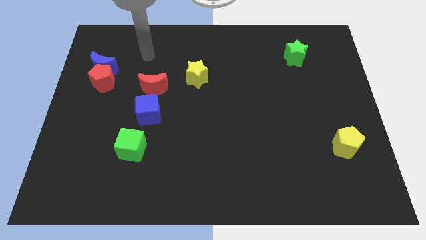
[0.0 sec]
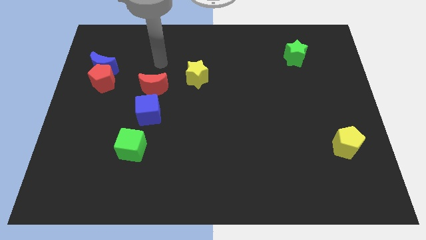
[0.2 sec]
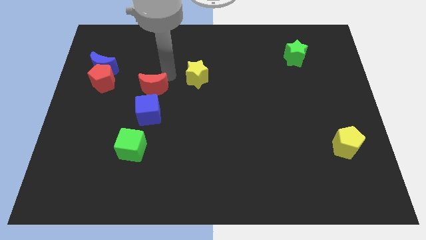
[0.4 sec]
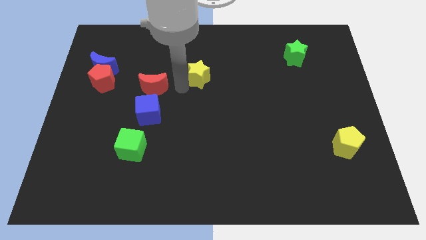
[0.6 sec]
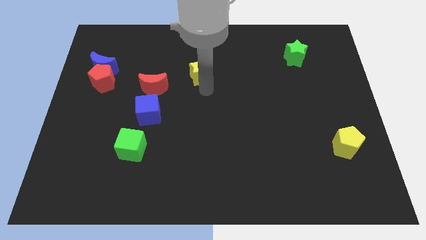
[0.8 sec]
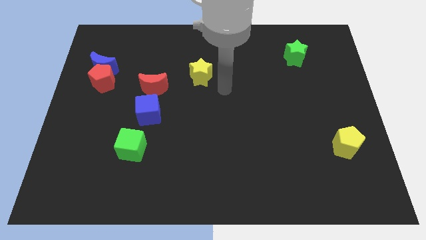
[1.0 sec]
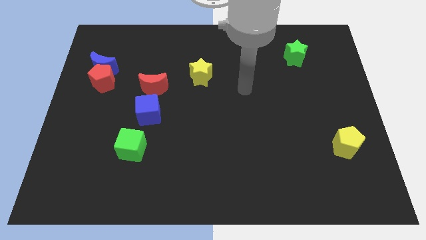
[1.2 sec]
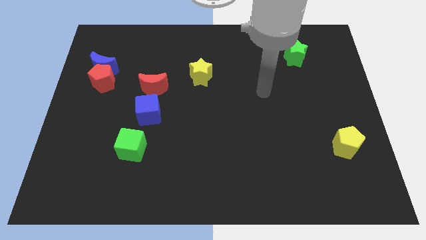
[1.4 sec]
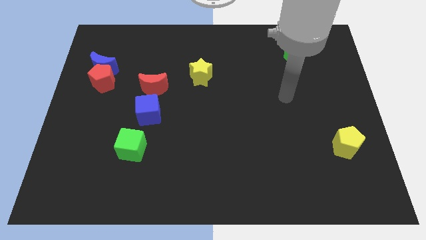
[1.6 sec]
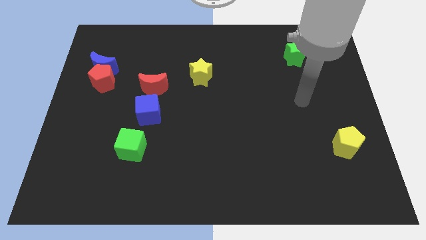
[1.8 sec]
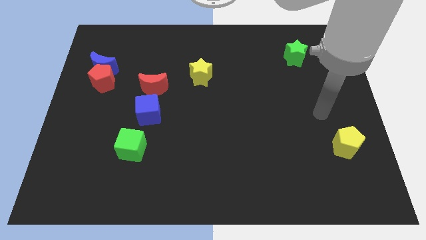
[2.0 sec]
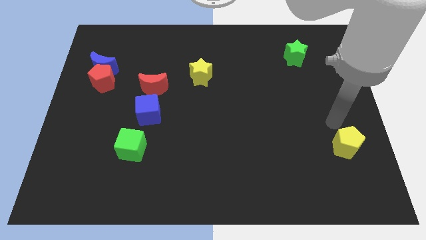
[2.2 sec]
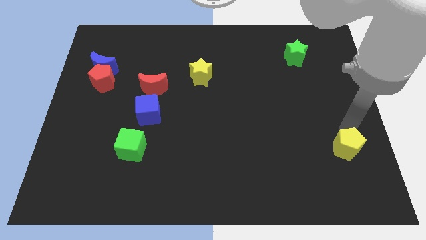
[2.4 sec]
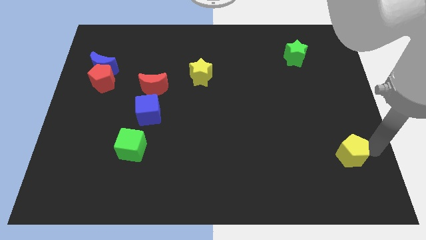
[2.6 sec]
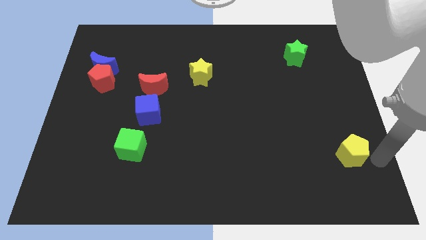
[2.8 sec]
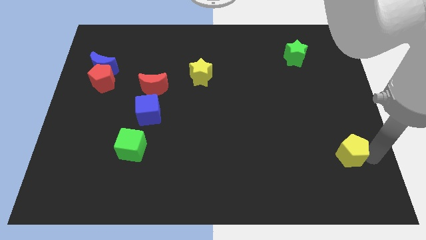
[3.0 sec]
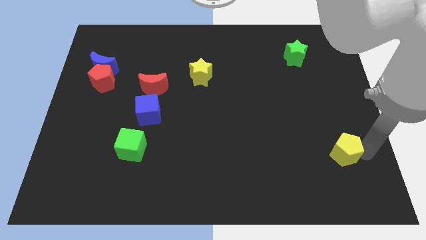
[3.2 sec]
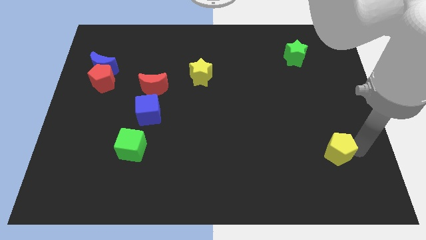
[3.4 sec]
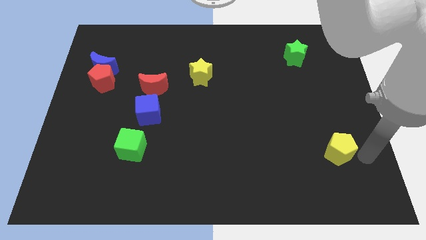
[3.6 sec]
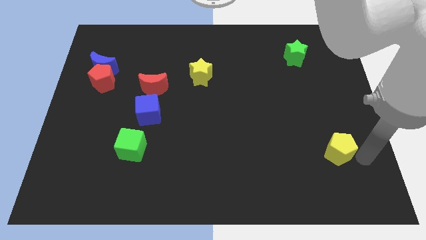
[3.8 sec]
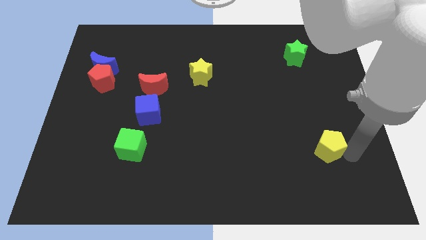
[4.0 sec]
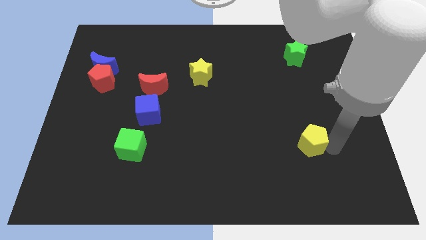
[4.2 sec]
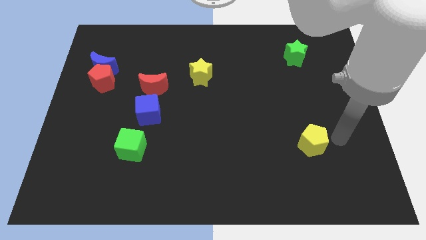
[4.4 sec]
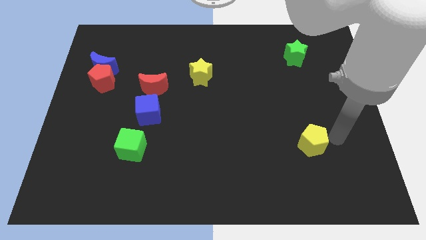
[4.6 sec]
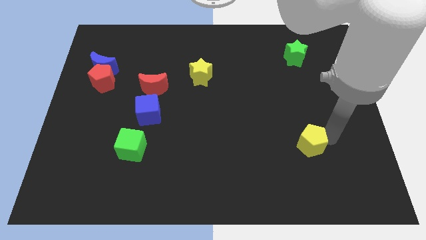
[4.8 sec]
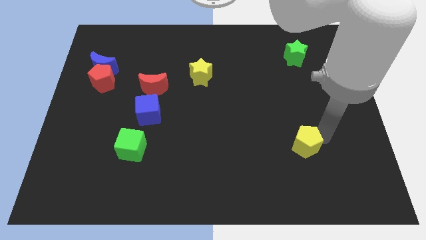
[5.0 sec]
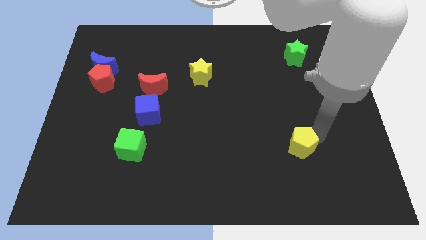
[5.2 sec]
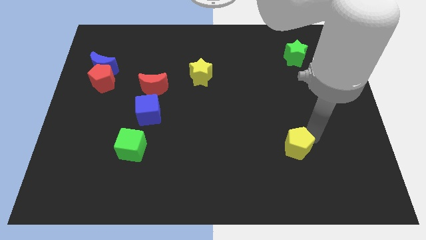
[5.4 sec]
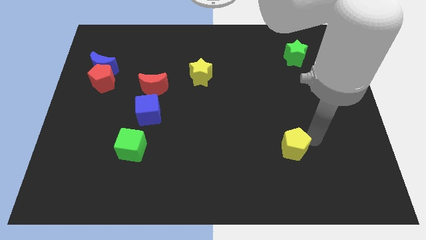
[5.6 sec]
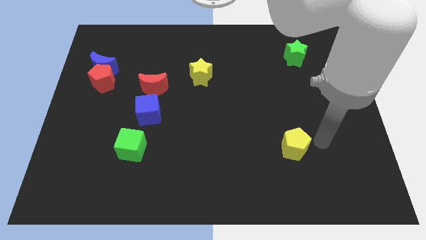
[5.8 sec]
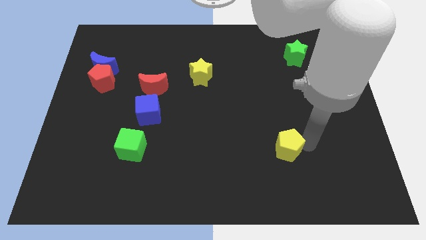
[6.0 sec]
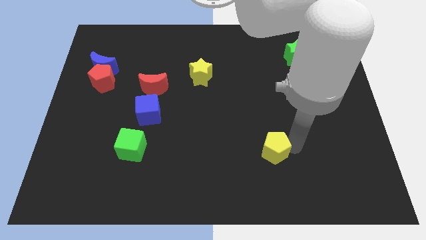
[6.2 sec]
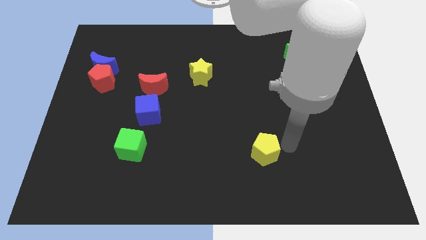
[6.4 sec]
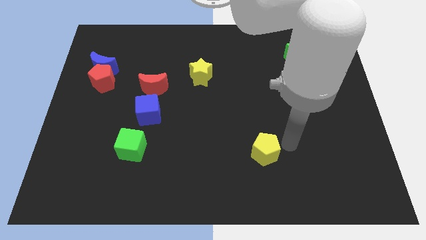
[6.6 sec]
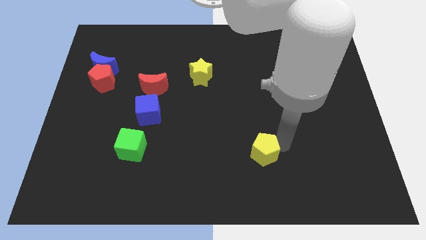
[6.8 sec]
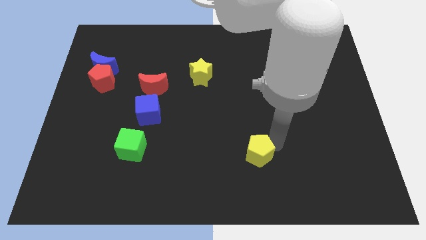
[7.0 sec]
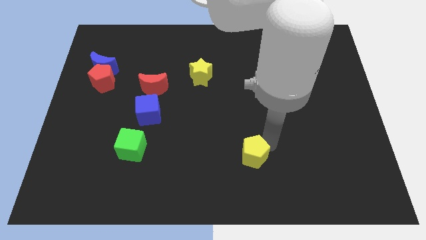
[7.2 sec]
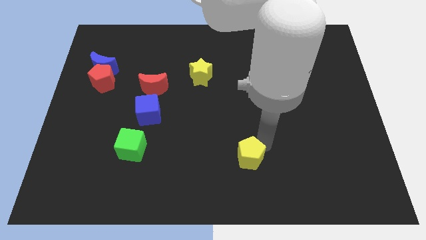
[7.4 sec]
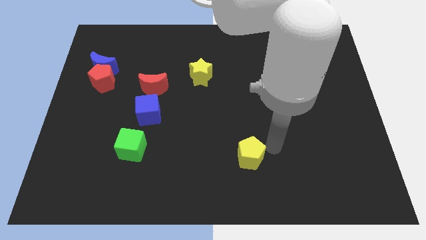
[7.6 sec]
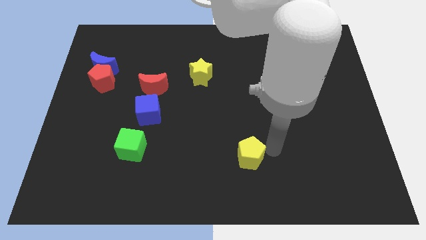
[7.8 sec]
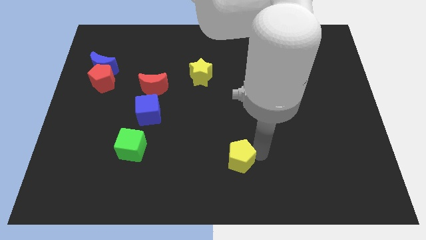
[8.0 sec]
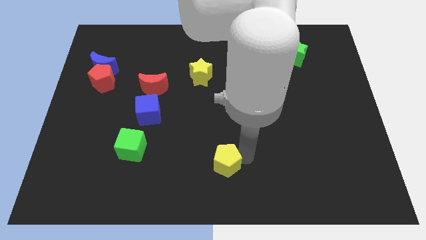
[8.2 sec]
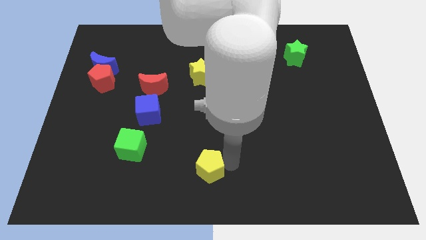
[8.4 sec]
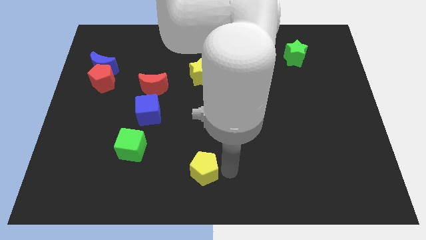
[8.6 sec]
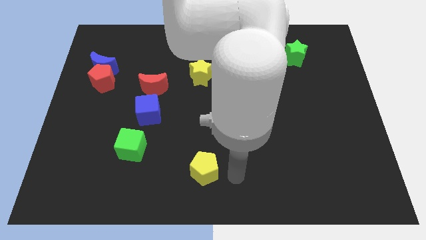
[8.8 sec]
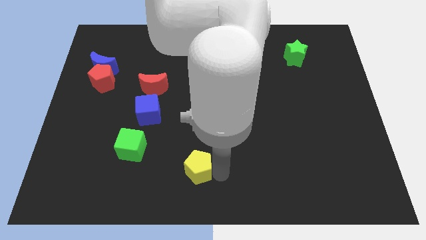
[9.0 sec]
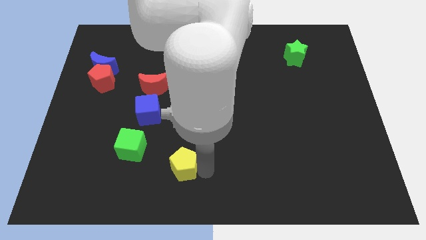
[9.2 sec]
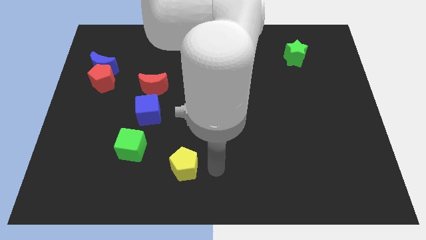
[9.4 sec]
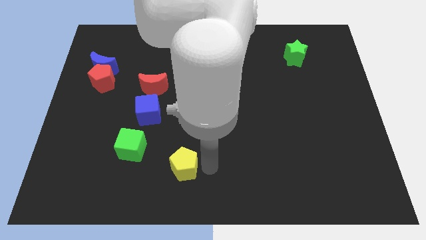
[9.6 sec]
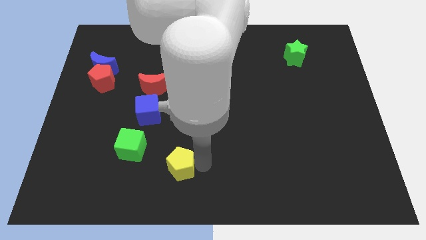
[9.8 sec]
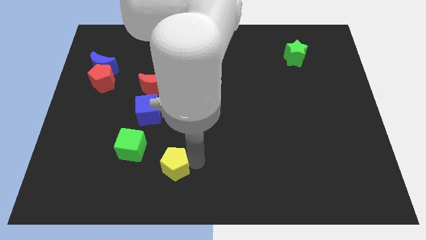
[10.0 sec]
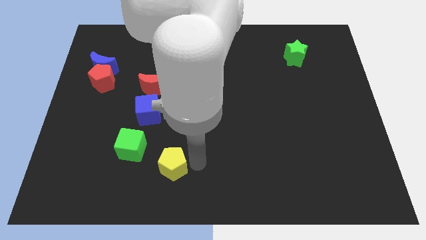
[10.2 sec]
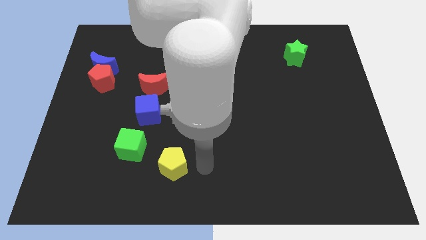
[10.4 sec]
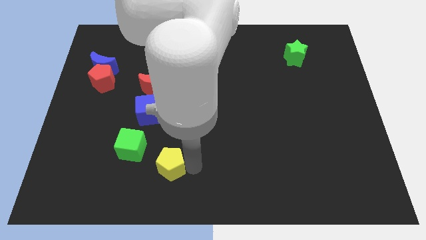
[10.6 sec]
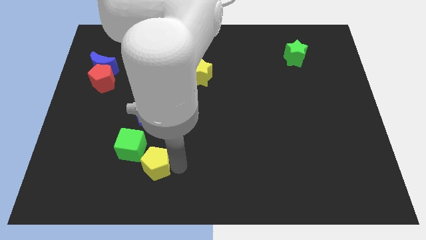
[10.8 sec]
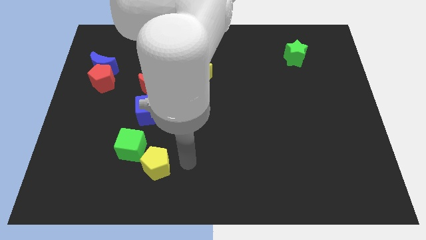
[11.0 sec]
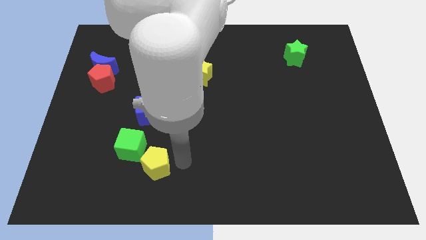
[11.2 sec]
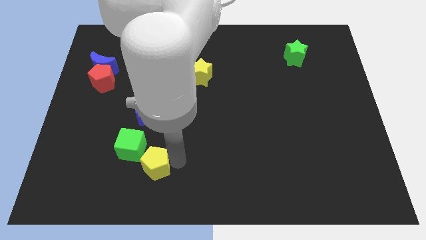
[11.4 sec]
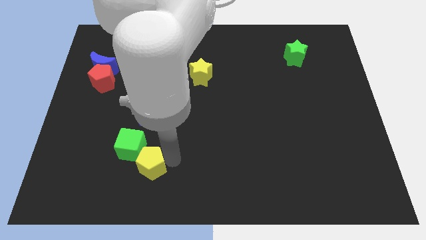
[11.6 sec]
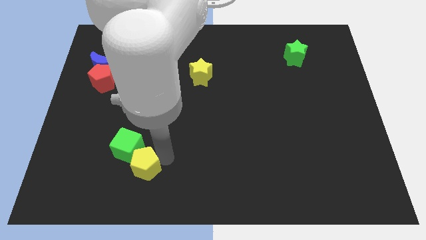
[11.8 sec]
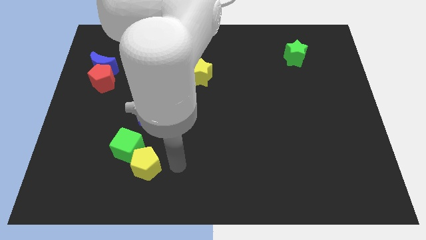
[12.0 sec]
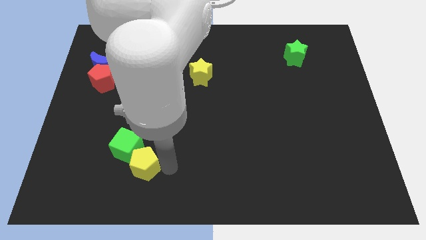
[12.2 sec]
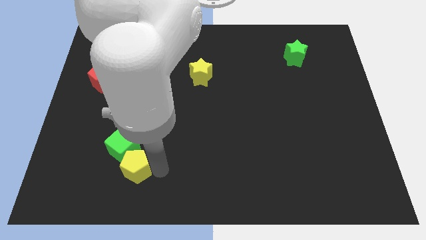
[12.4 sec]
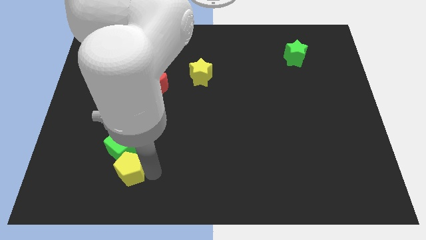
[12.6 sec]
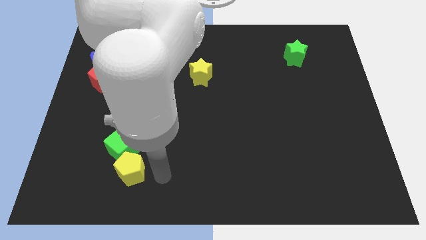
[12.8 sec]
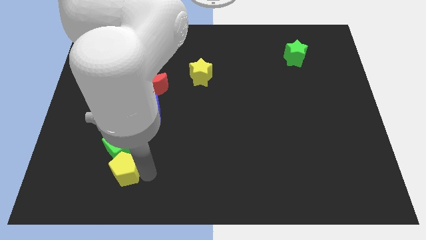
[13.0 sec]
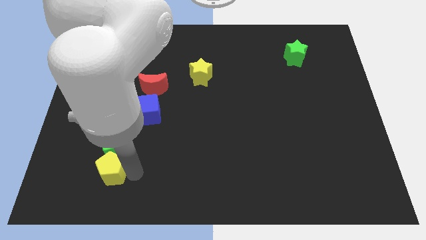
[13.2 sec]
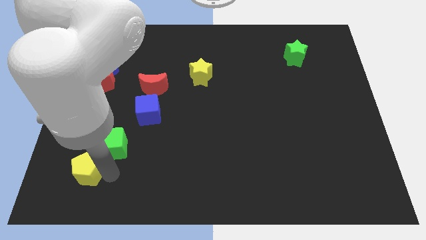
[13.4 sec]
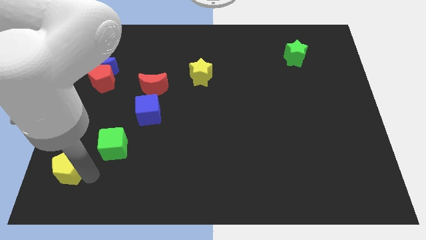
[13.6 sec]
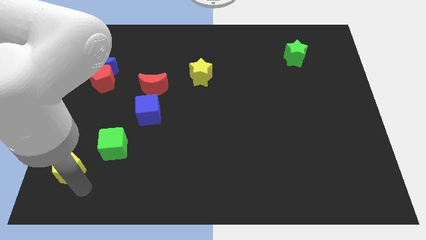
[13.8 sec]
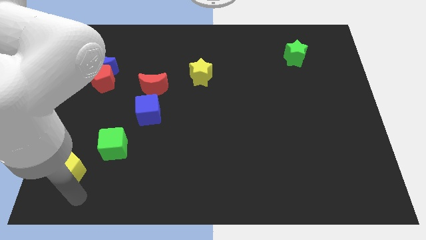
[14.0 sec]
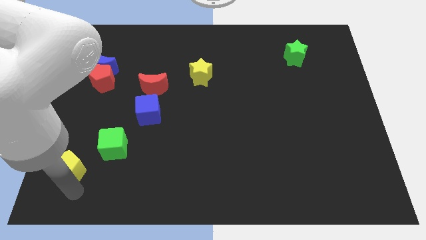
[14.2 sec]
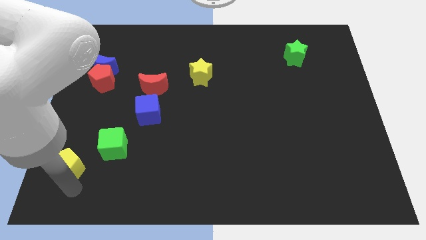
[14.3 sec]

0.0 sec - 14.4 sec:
slide the yellow pentagon just left of the green cube

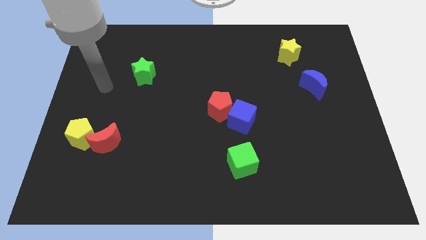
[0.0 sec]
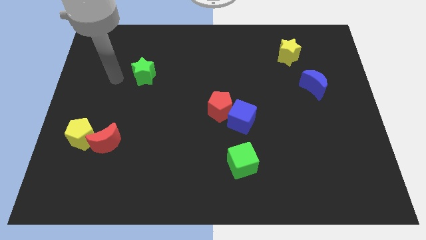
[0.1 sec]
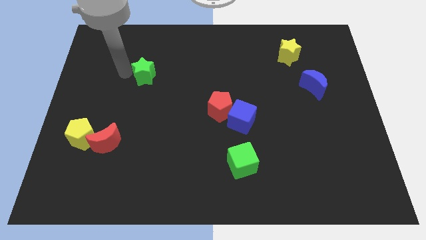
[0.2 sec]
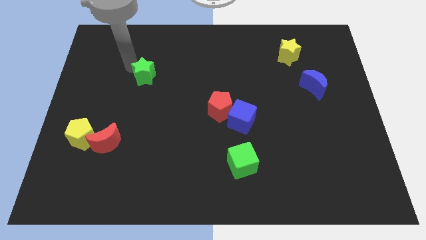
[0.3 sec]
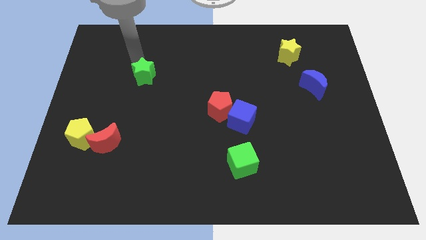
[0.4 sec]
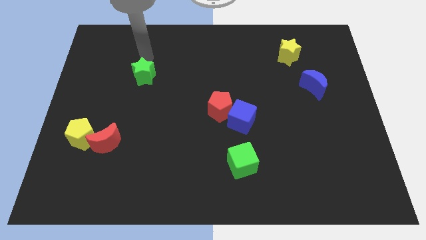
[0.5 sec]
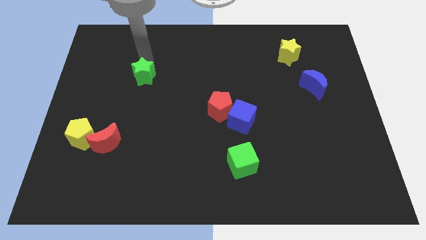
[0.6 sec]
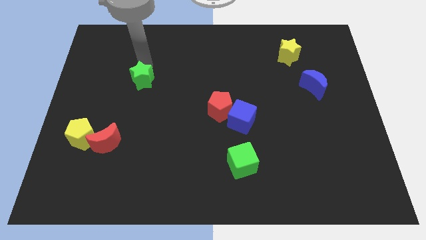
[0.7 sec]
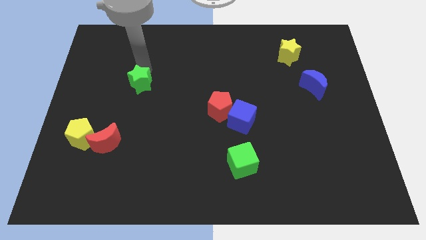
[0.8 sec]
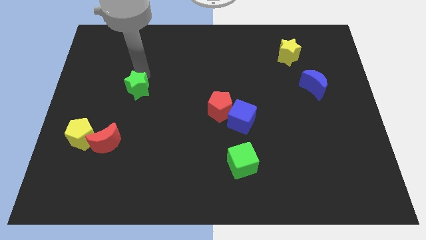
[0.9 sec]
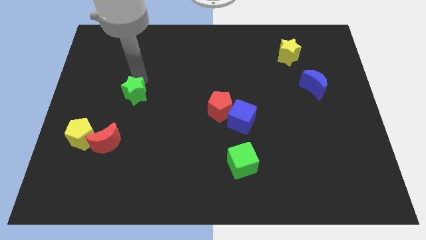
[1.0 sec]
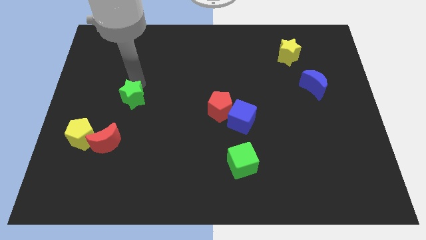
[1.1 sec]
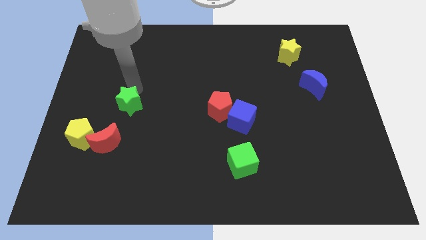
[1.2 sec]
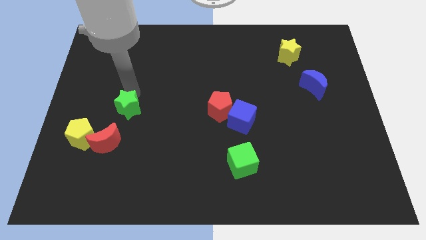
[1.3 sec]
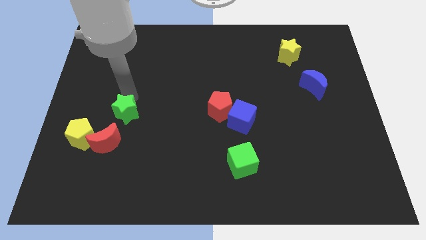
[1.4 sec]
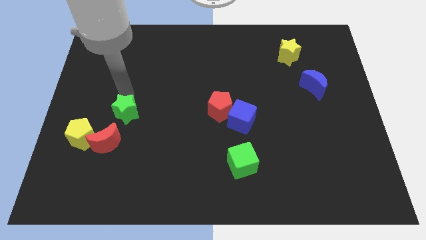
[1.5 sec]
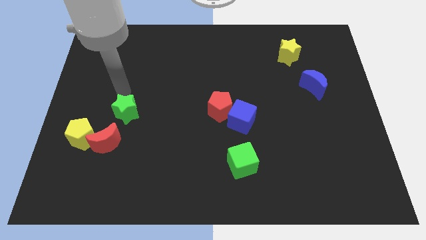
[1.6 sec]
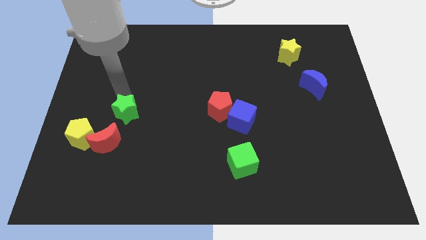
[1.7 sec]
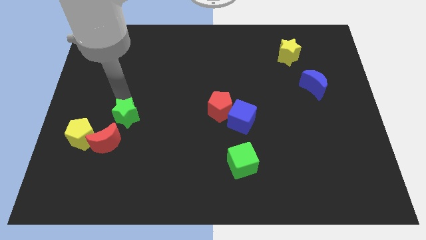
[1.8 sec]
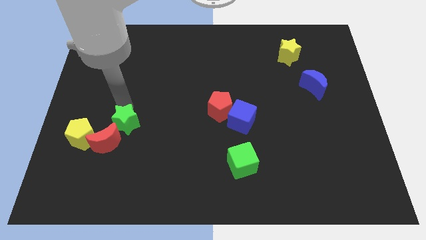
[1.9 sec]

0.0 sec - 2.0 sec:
slide the green star just right of the yellow pentagon
